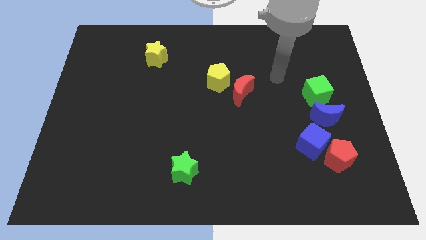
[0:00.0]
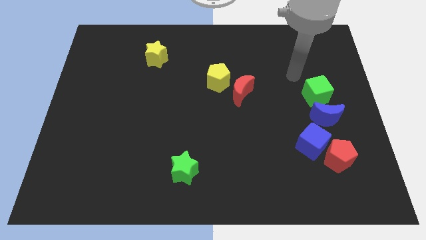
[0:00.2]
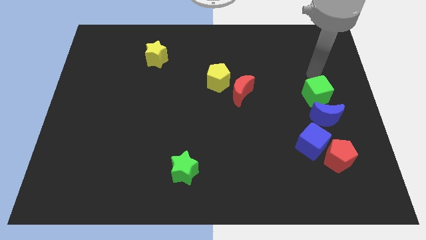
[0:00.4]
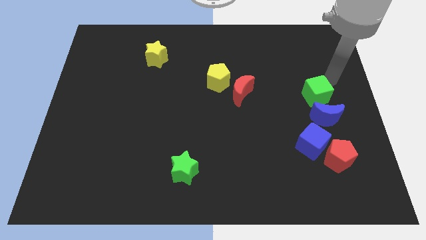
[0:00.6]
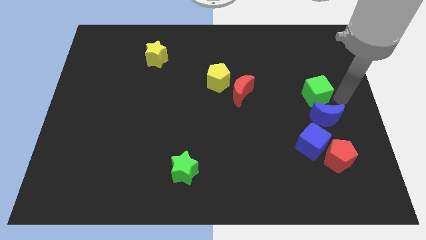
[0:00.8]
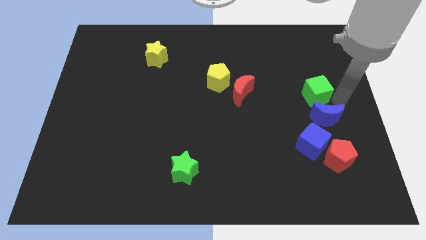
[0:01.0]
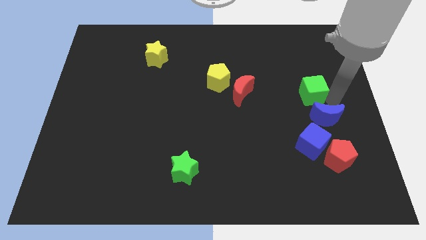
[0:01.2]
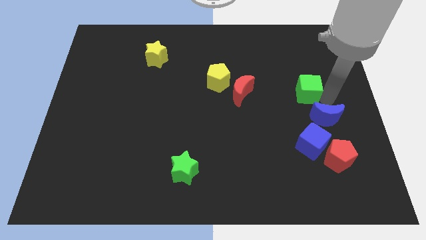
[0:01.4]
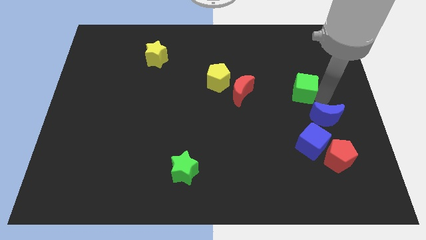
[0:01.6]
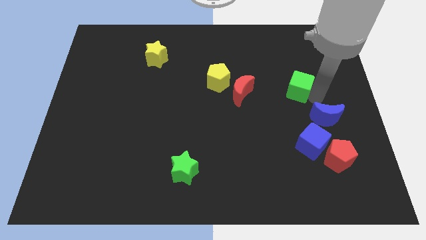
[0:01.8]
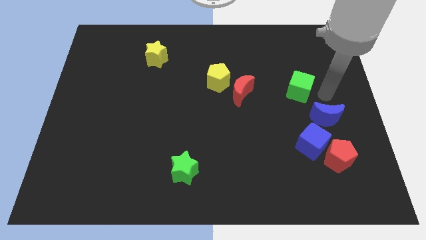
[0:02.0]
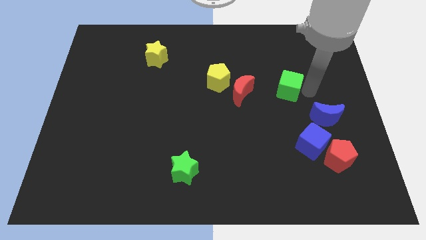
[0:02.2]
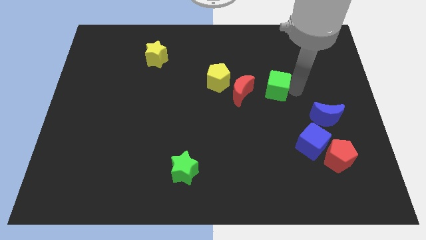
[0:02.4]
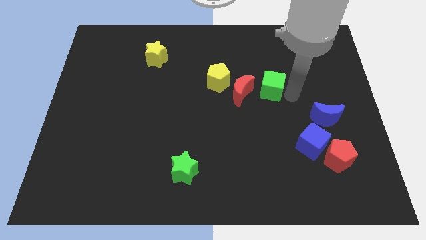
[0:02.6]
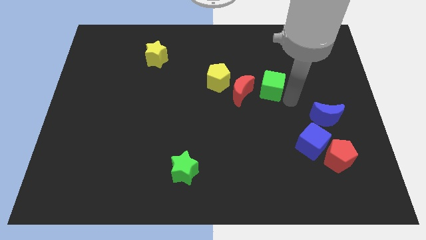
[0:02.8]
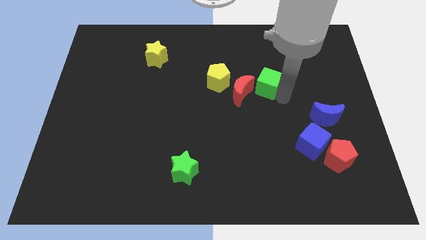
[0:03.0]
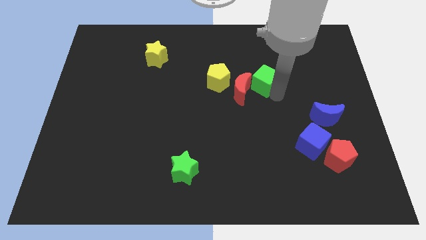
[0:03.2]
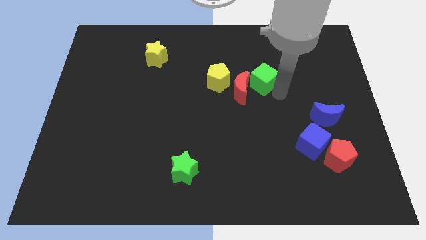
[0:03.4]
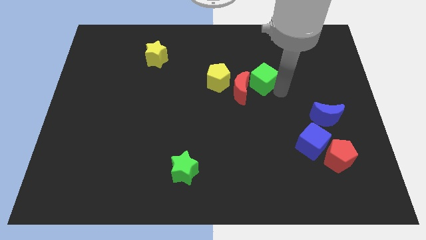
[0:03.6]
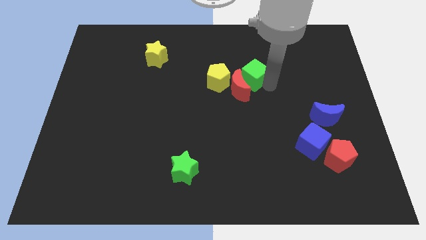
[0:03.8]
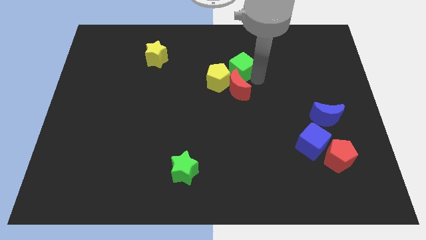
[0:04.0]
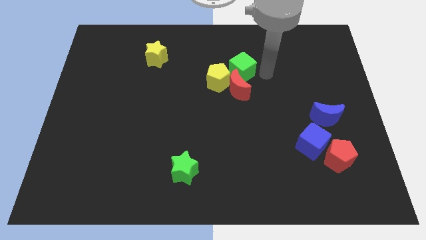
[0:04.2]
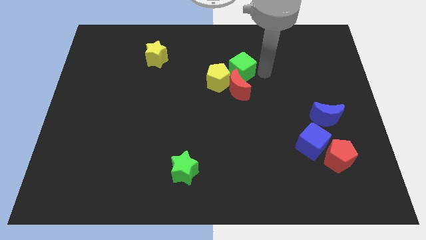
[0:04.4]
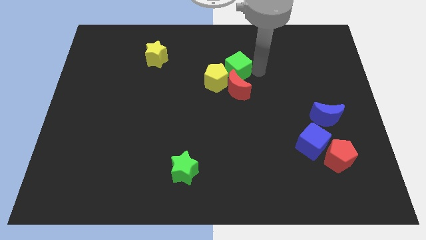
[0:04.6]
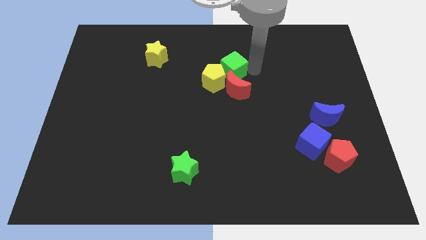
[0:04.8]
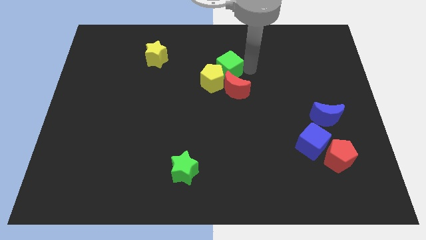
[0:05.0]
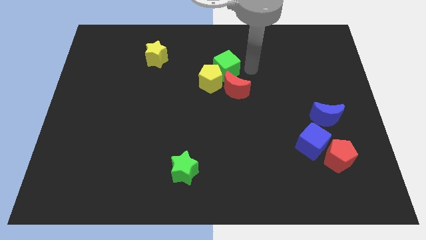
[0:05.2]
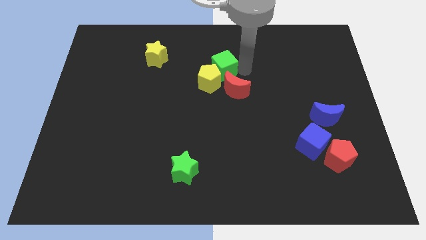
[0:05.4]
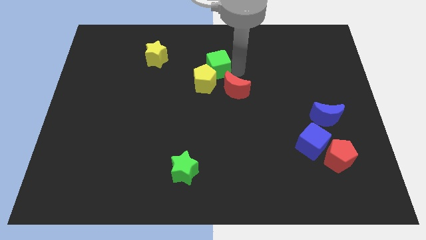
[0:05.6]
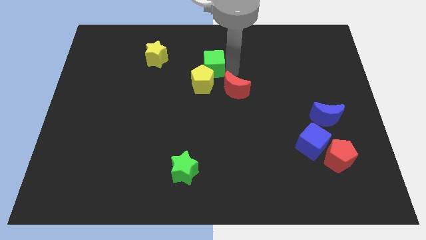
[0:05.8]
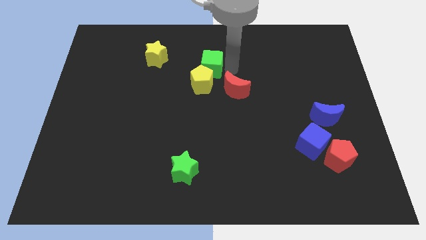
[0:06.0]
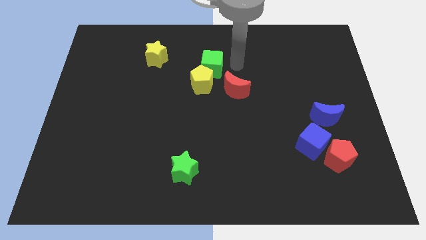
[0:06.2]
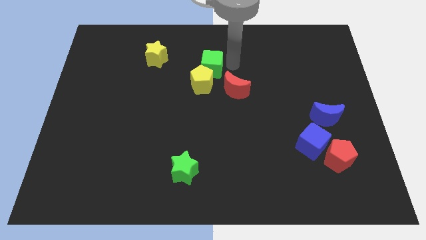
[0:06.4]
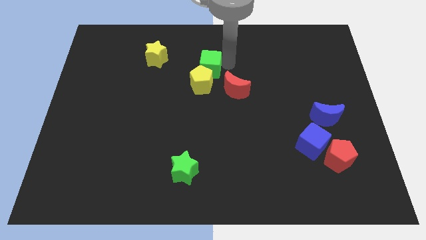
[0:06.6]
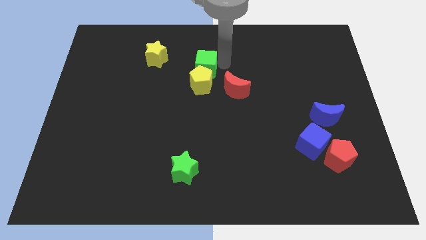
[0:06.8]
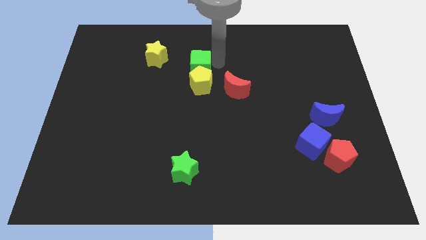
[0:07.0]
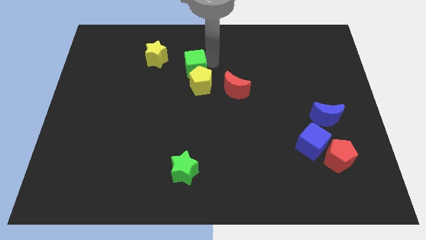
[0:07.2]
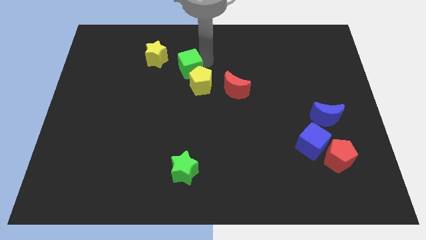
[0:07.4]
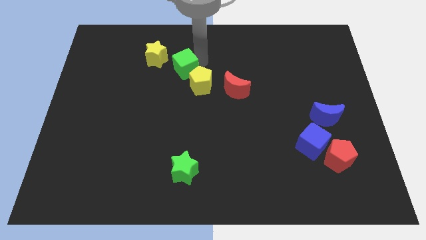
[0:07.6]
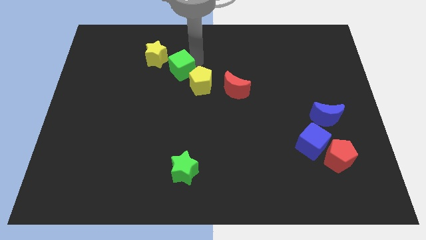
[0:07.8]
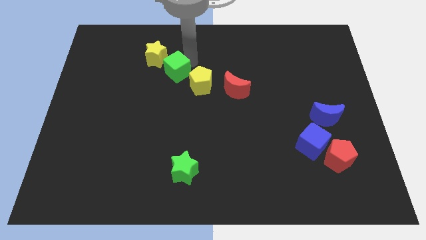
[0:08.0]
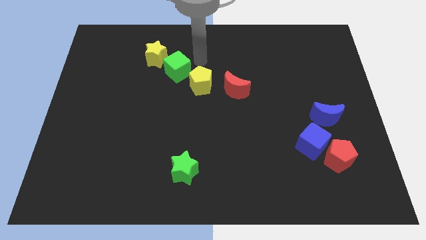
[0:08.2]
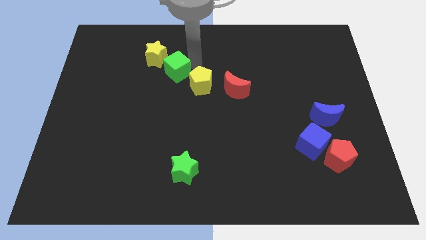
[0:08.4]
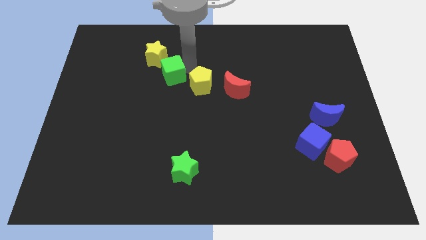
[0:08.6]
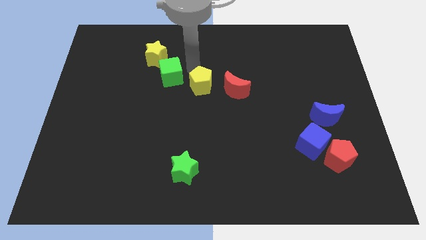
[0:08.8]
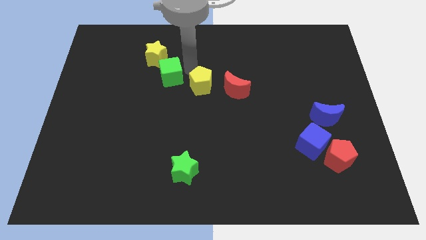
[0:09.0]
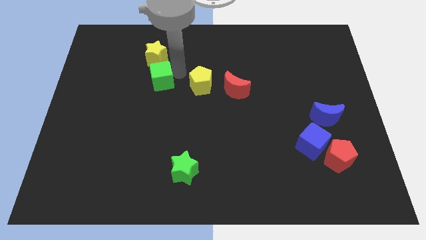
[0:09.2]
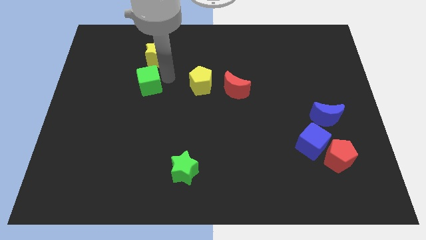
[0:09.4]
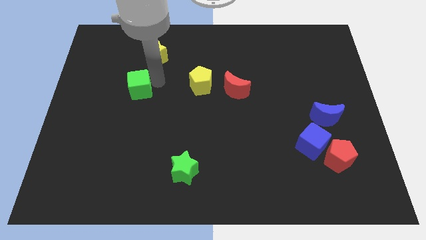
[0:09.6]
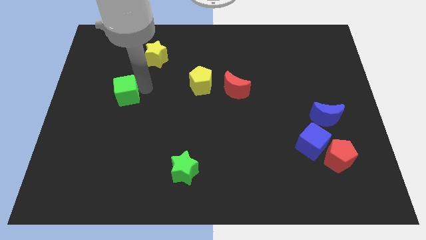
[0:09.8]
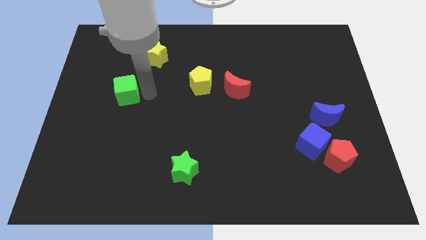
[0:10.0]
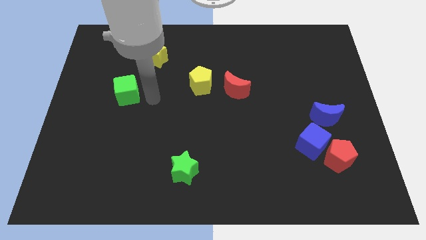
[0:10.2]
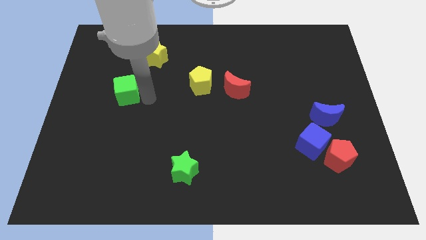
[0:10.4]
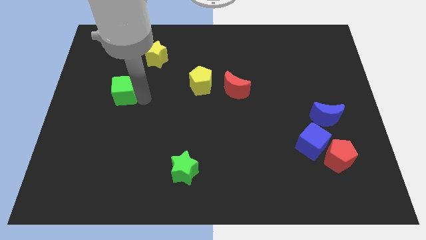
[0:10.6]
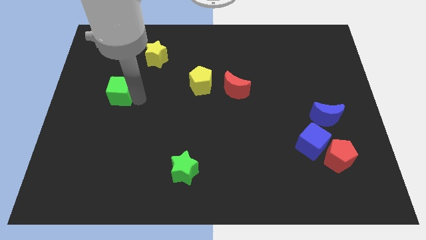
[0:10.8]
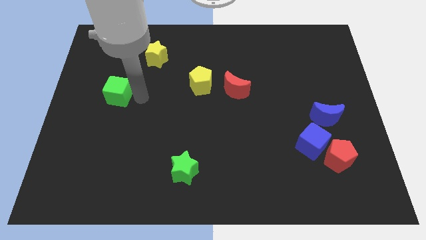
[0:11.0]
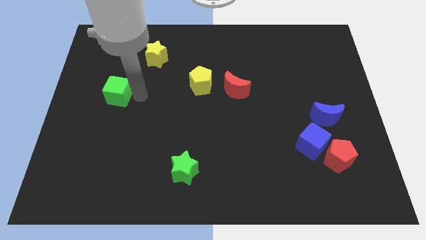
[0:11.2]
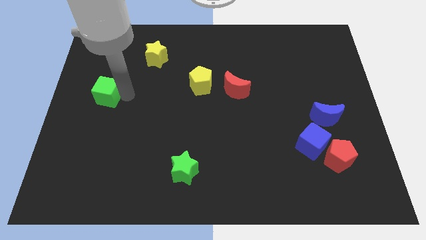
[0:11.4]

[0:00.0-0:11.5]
push the green cube to the left side of the board

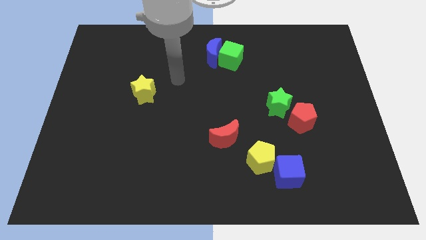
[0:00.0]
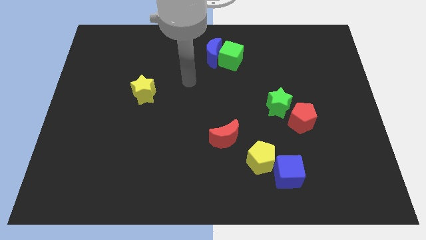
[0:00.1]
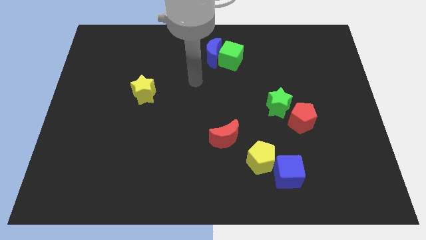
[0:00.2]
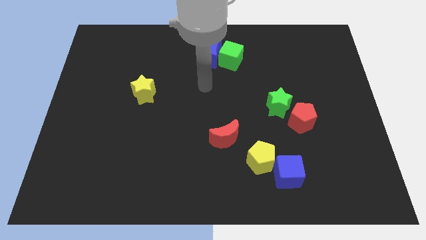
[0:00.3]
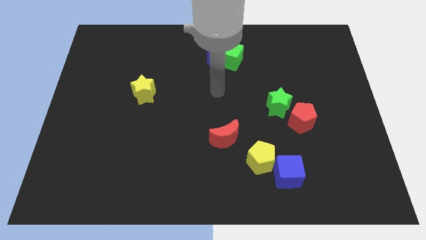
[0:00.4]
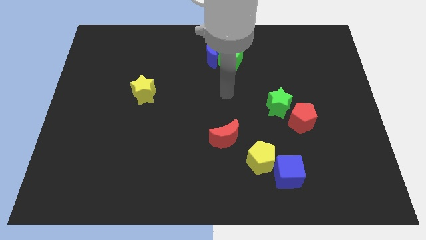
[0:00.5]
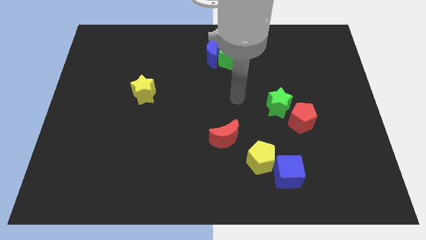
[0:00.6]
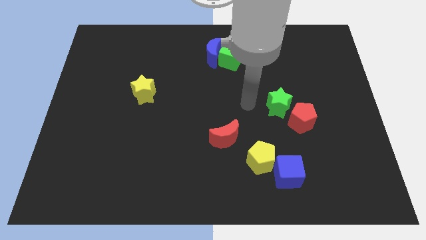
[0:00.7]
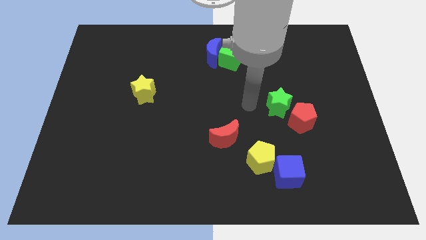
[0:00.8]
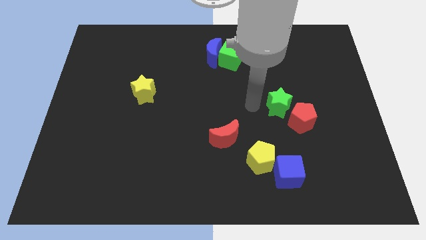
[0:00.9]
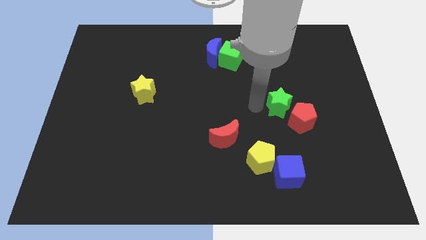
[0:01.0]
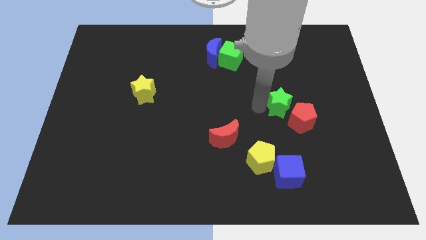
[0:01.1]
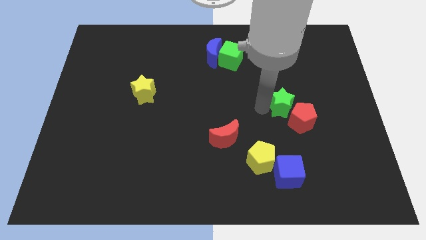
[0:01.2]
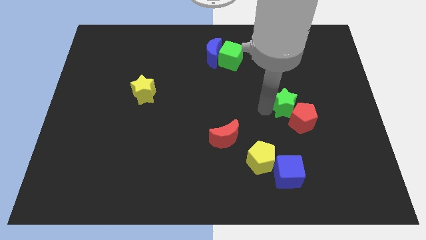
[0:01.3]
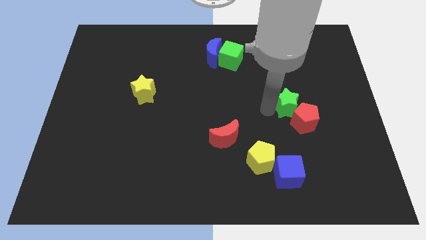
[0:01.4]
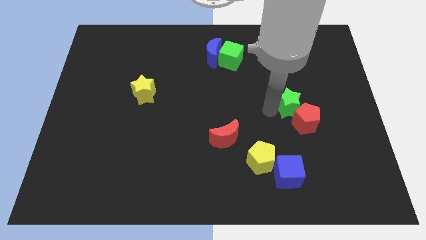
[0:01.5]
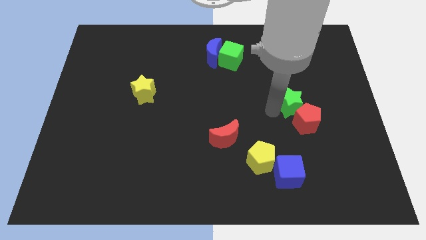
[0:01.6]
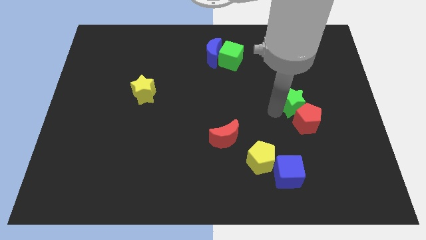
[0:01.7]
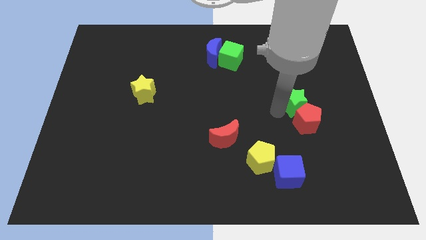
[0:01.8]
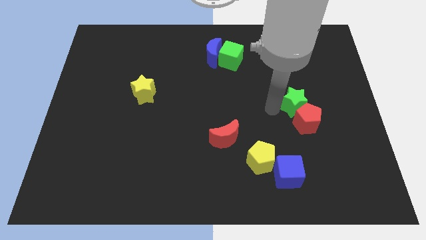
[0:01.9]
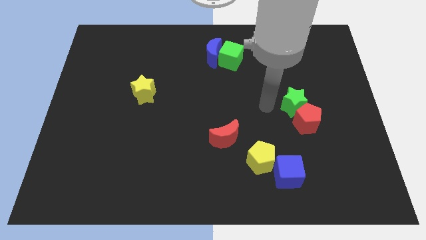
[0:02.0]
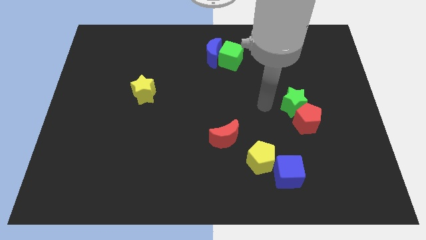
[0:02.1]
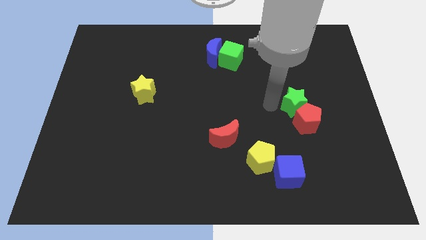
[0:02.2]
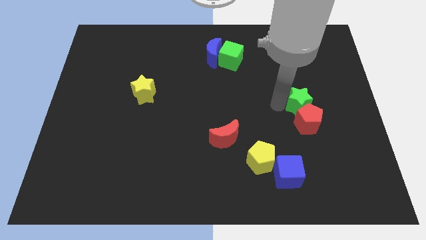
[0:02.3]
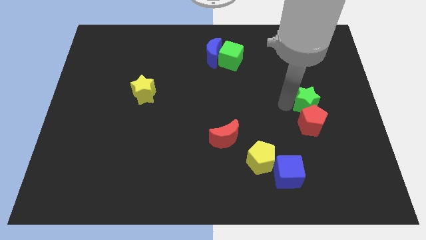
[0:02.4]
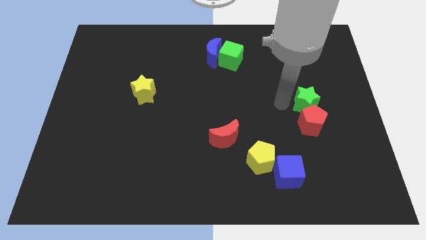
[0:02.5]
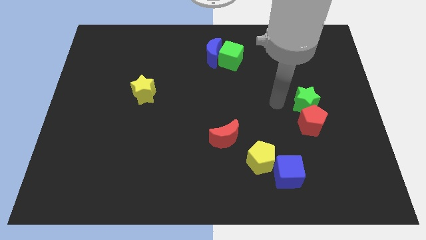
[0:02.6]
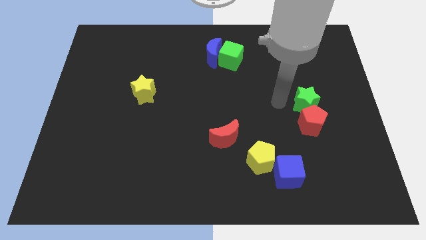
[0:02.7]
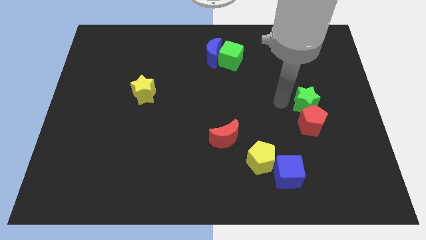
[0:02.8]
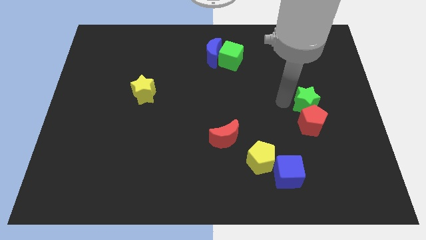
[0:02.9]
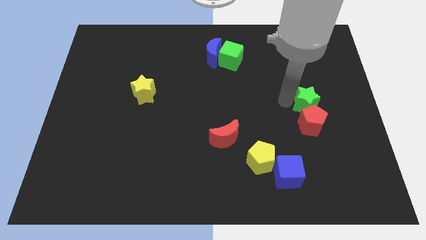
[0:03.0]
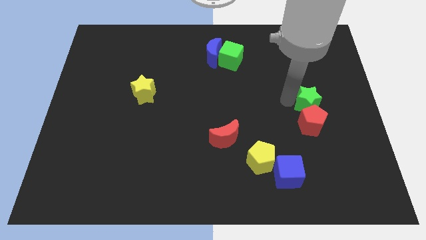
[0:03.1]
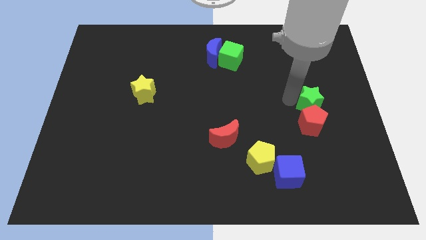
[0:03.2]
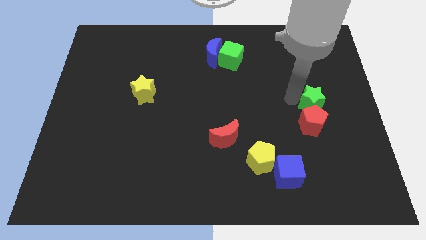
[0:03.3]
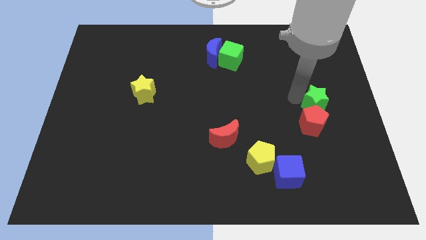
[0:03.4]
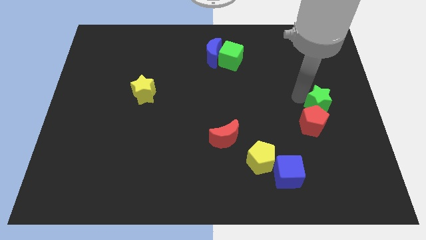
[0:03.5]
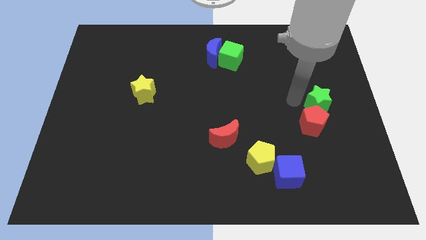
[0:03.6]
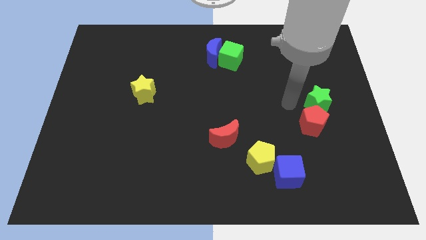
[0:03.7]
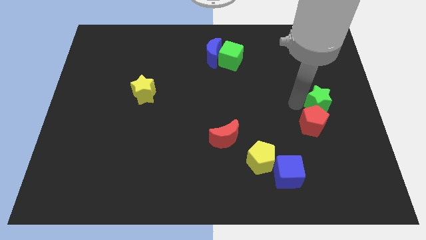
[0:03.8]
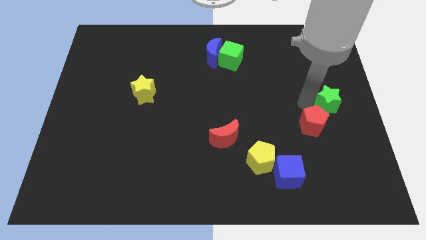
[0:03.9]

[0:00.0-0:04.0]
put the green star to the right side
